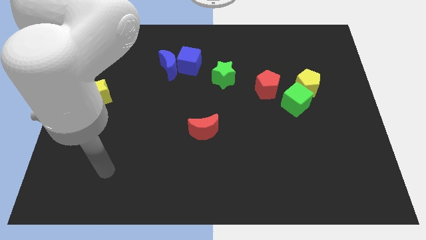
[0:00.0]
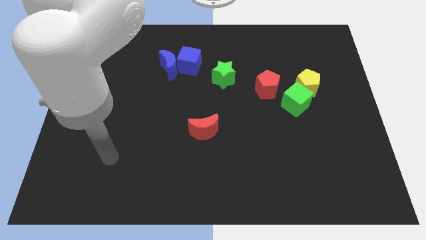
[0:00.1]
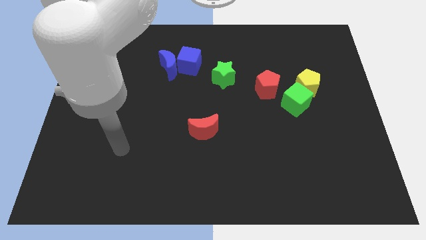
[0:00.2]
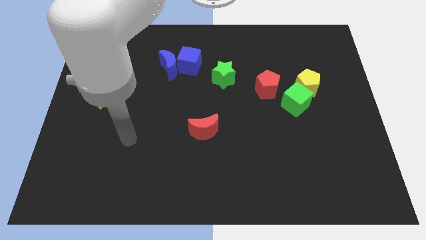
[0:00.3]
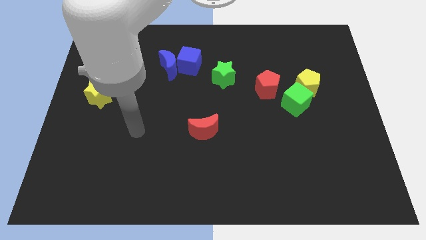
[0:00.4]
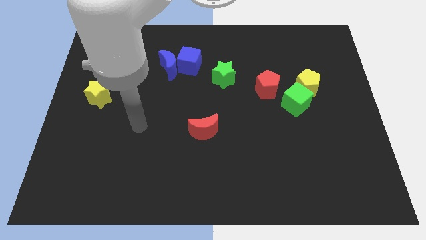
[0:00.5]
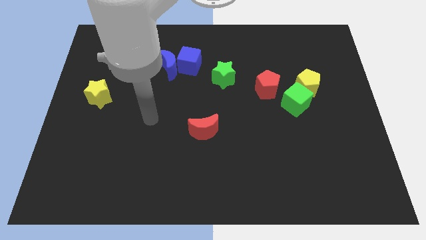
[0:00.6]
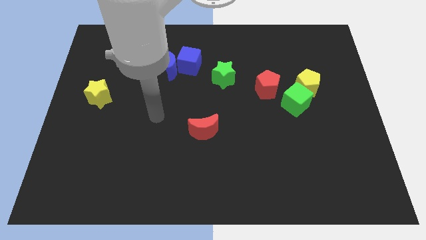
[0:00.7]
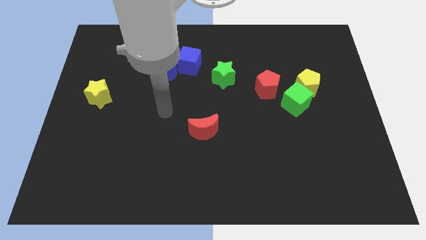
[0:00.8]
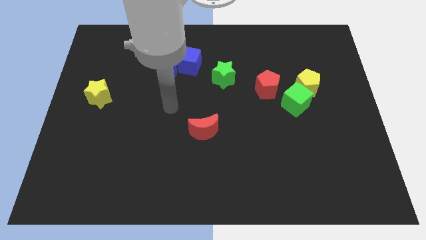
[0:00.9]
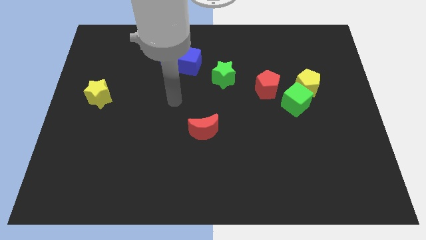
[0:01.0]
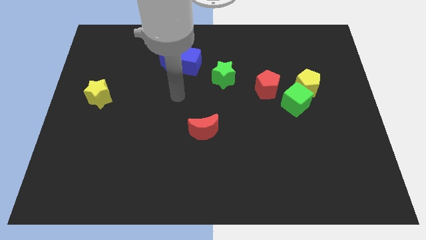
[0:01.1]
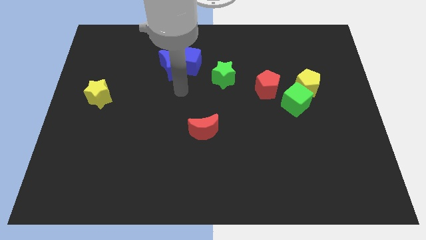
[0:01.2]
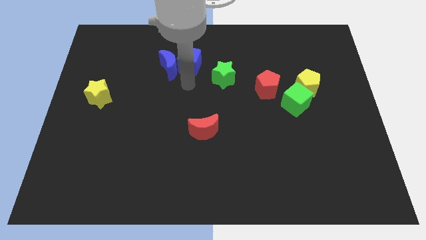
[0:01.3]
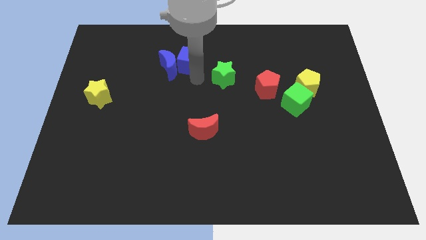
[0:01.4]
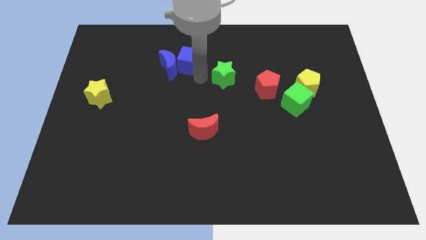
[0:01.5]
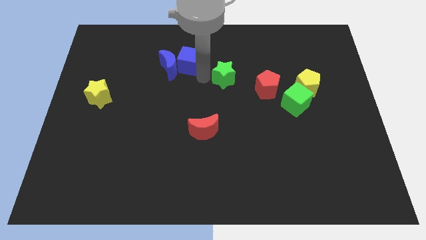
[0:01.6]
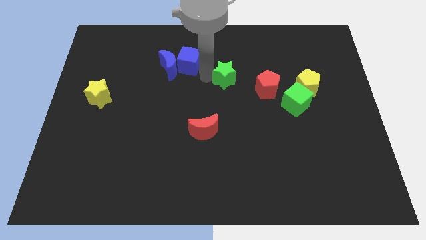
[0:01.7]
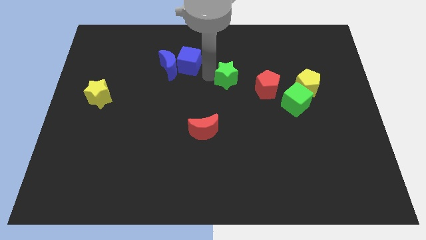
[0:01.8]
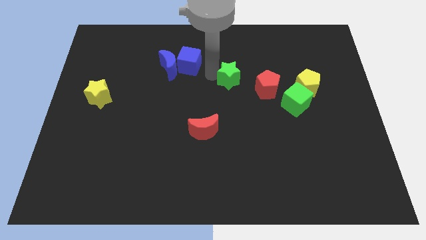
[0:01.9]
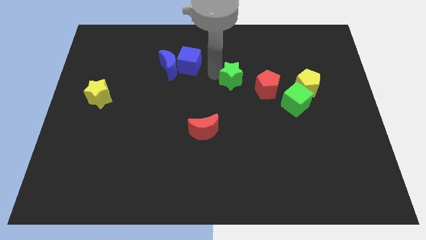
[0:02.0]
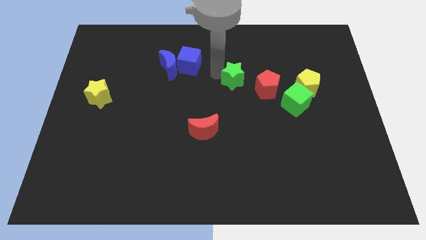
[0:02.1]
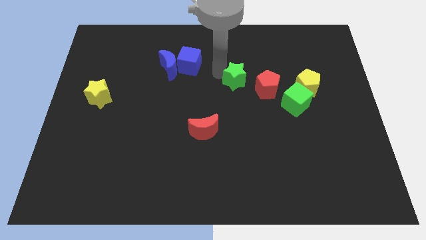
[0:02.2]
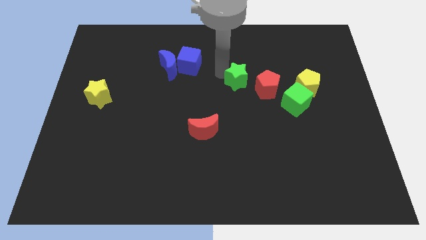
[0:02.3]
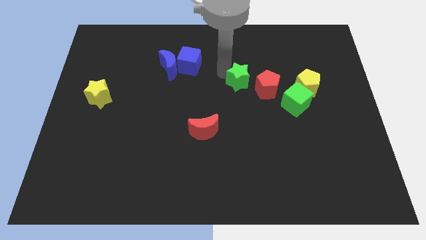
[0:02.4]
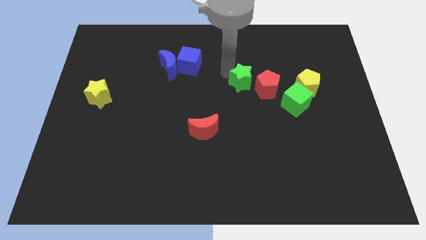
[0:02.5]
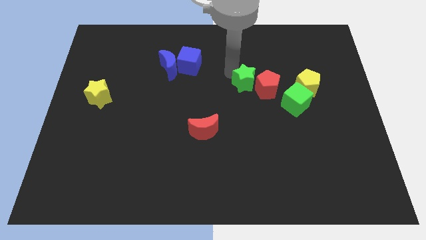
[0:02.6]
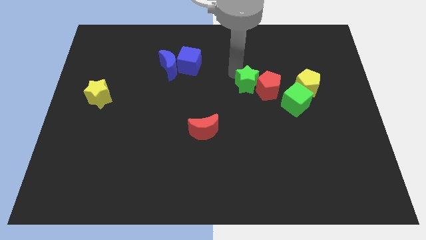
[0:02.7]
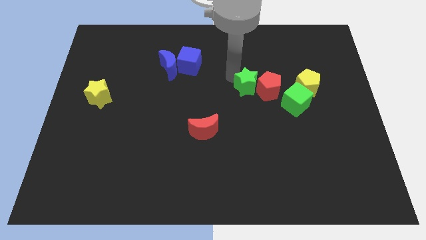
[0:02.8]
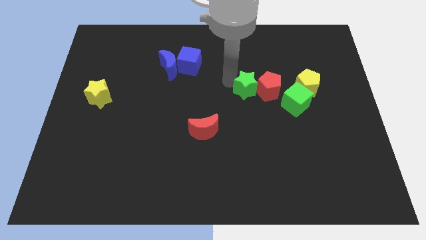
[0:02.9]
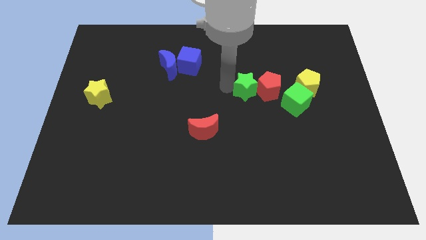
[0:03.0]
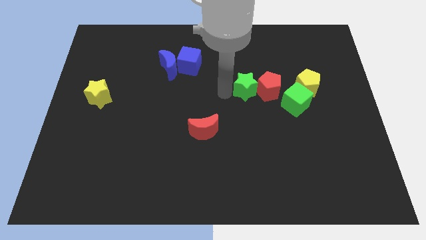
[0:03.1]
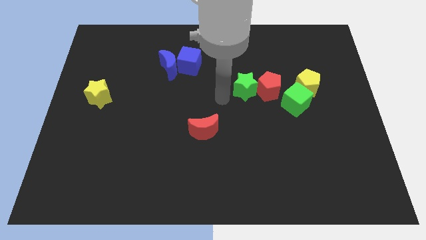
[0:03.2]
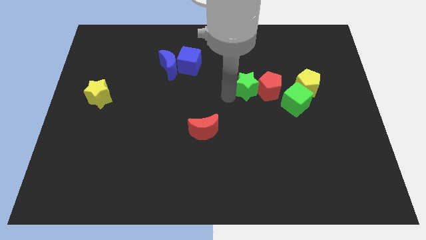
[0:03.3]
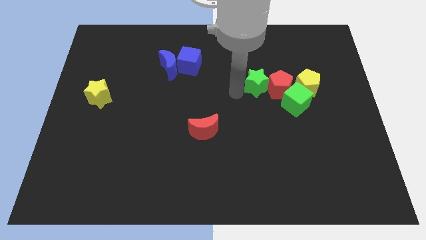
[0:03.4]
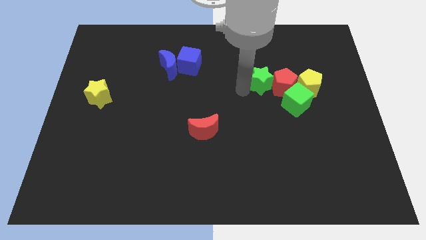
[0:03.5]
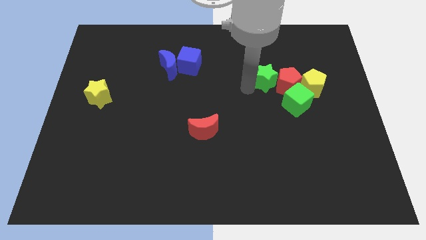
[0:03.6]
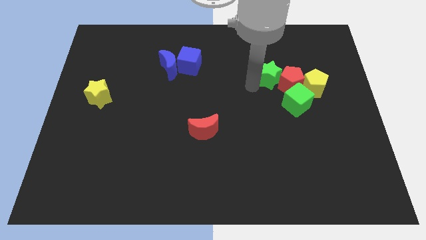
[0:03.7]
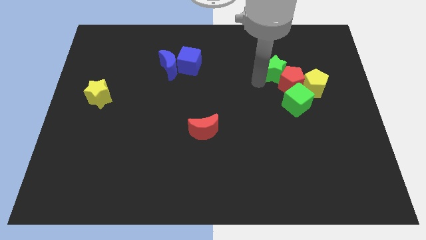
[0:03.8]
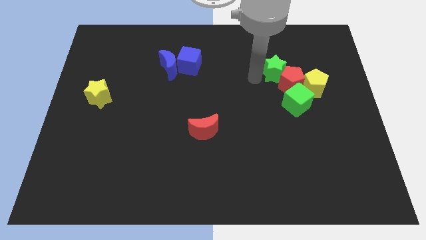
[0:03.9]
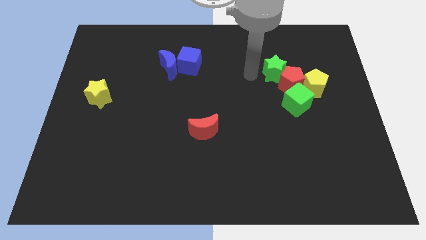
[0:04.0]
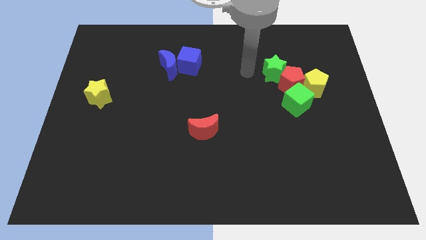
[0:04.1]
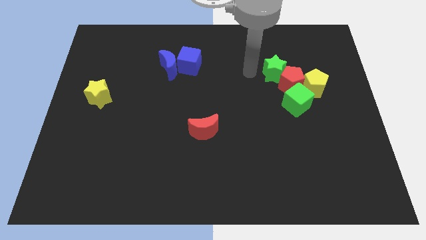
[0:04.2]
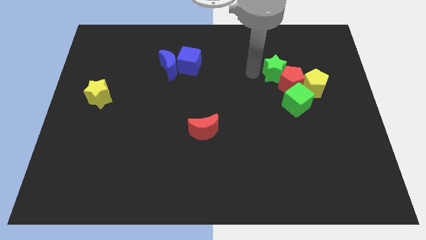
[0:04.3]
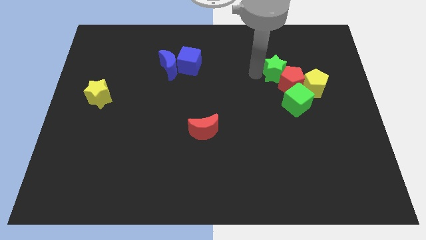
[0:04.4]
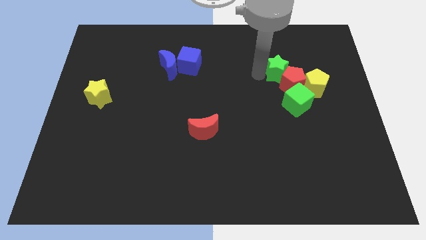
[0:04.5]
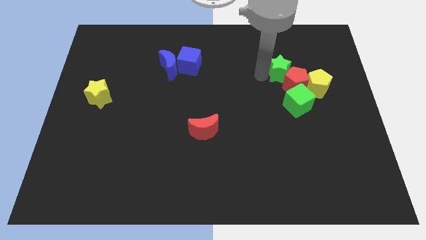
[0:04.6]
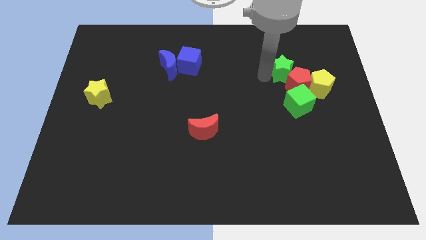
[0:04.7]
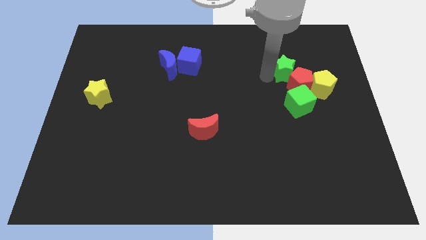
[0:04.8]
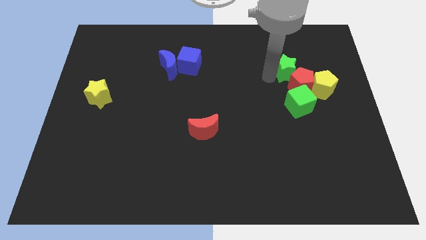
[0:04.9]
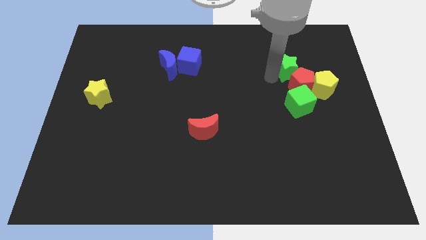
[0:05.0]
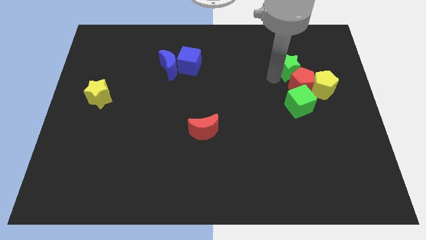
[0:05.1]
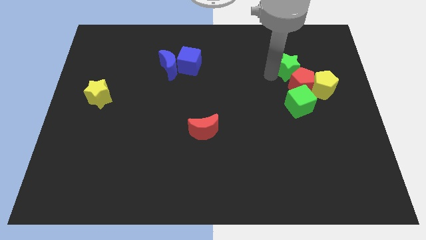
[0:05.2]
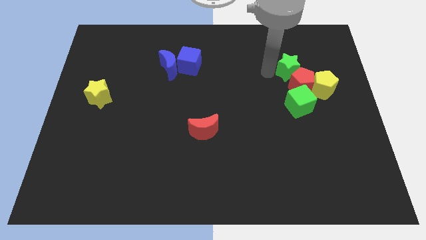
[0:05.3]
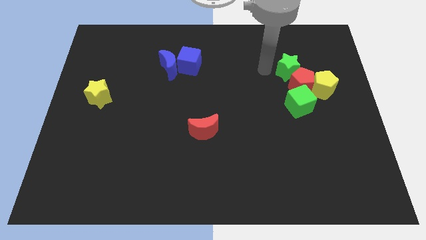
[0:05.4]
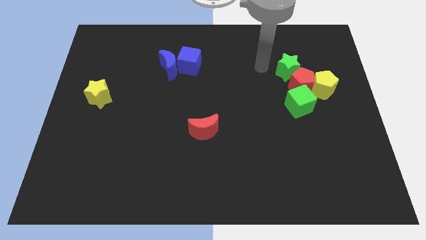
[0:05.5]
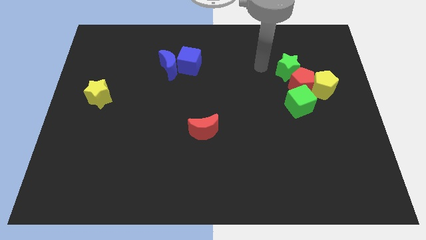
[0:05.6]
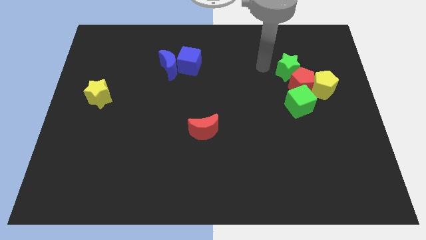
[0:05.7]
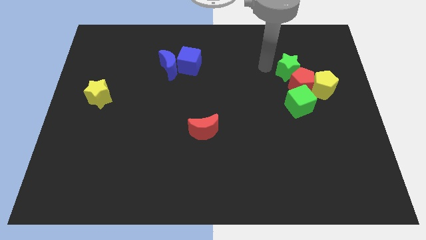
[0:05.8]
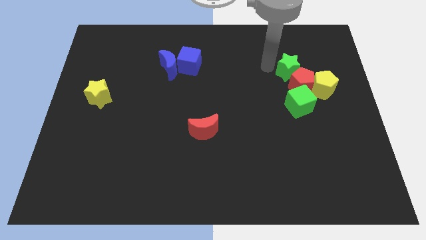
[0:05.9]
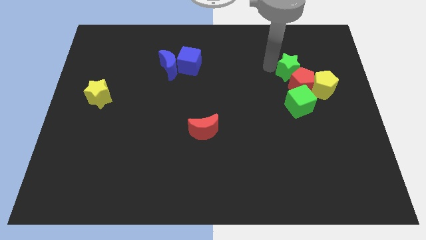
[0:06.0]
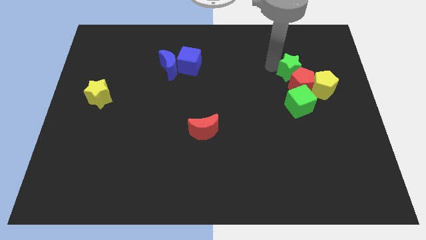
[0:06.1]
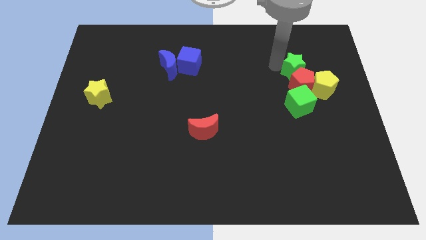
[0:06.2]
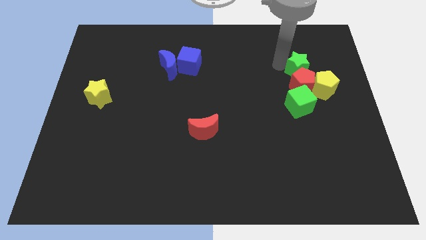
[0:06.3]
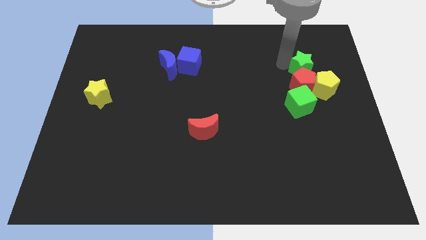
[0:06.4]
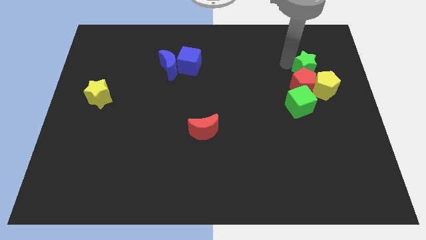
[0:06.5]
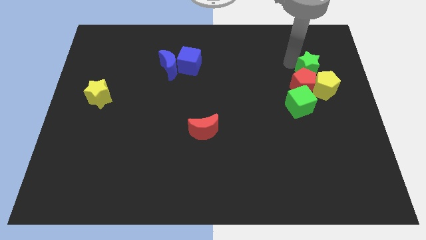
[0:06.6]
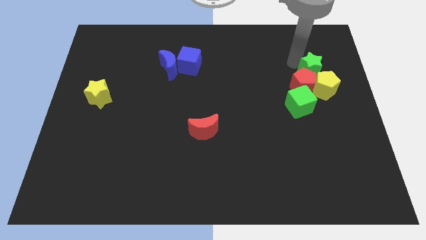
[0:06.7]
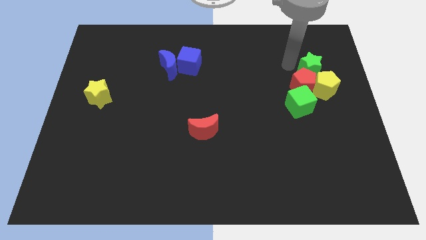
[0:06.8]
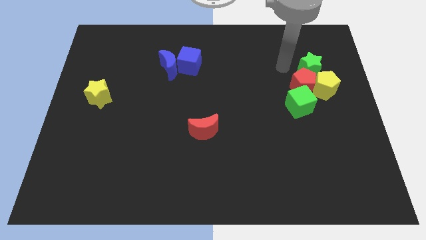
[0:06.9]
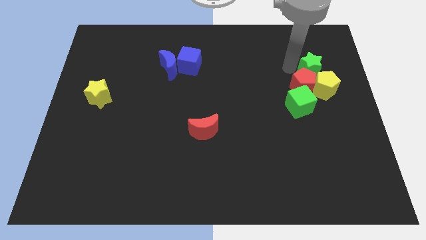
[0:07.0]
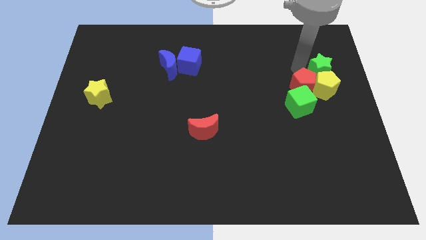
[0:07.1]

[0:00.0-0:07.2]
slide the green star diagonally up and to the right of the yellow pentagon

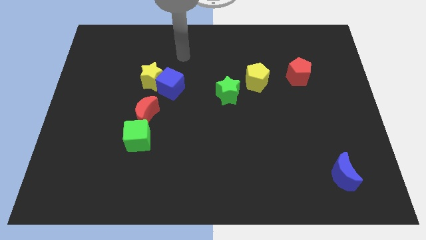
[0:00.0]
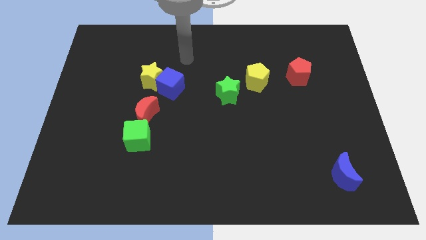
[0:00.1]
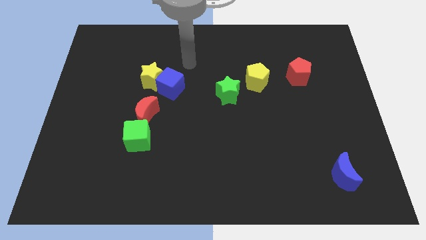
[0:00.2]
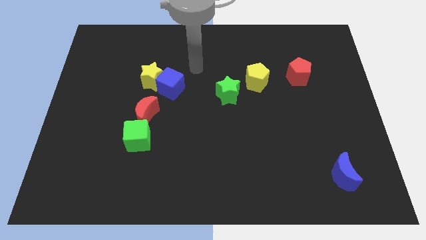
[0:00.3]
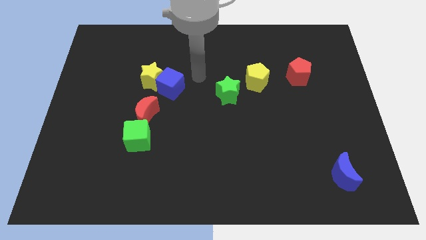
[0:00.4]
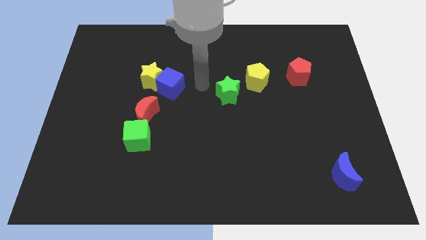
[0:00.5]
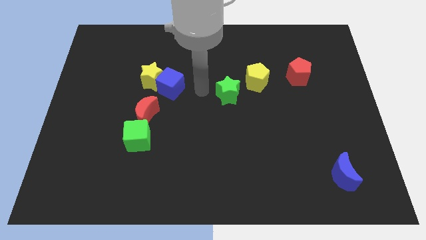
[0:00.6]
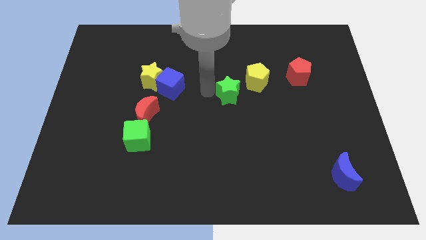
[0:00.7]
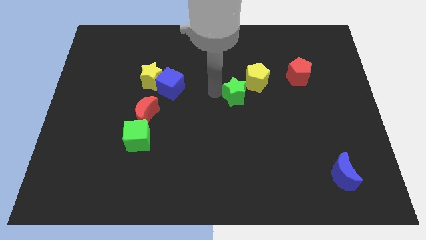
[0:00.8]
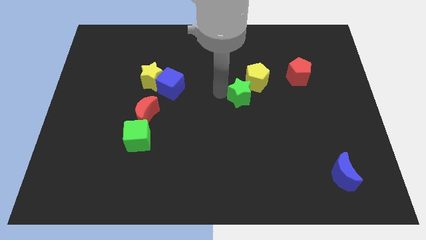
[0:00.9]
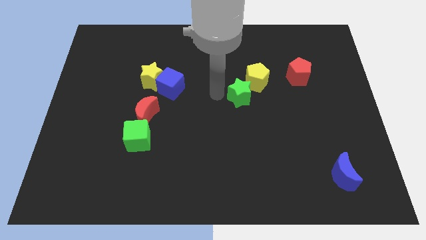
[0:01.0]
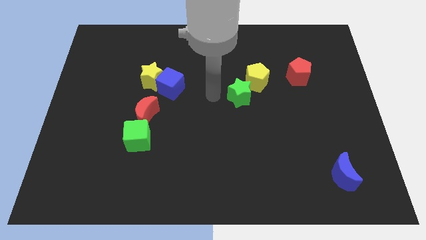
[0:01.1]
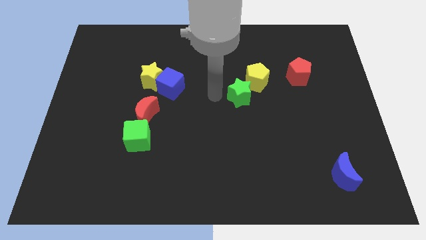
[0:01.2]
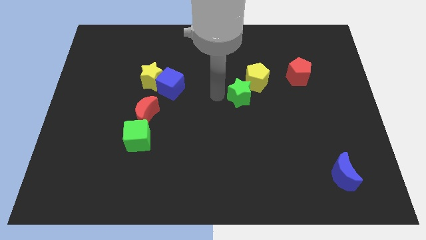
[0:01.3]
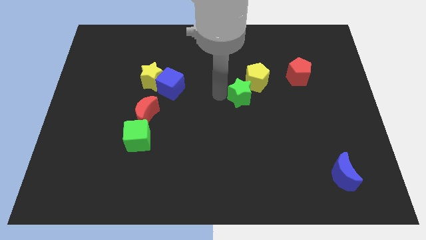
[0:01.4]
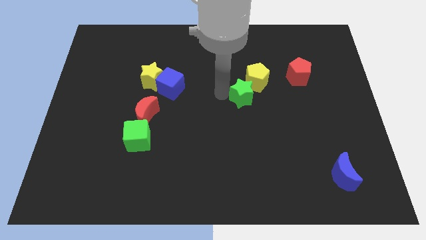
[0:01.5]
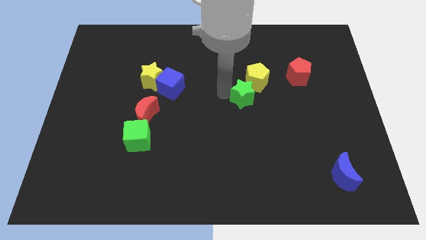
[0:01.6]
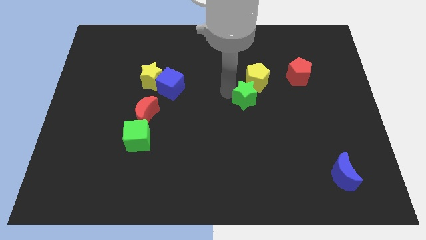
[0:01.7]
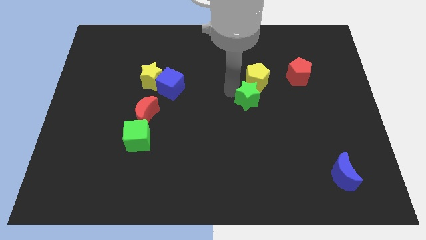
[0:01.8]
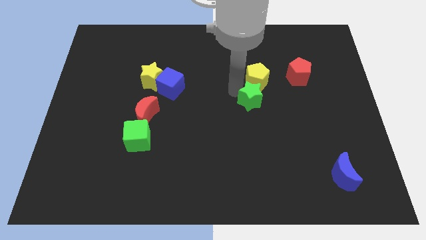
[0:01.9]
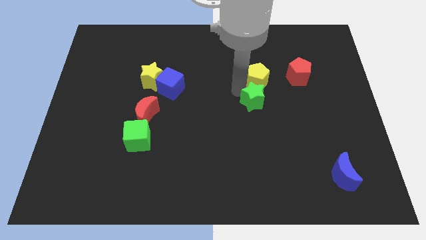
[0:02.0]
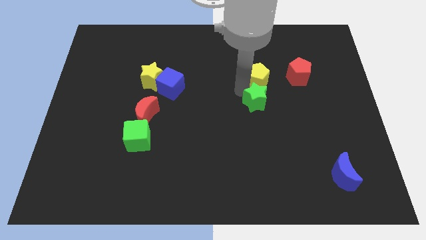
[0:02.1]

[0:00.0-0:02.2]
put the green star to the bottom right of the yellow pentagon
